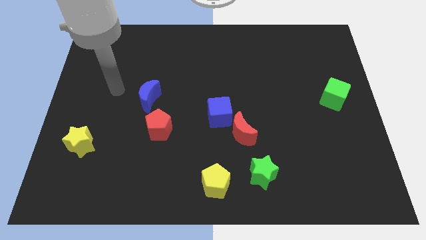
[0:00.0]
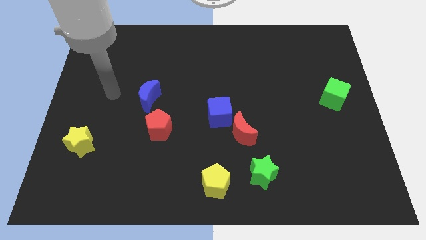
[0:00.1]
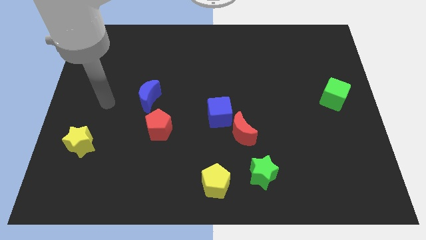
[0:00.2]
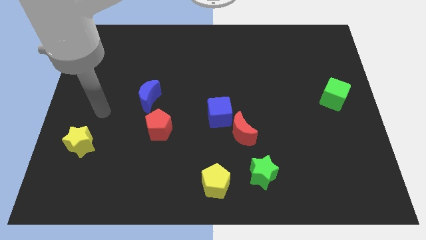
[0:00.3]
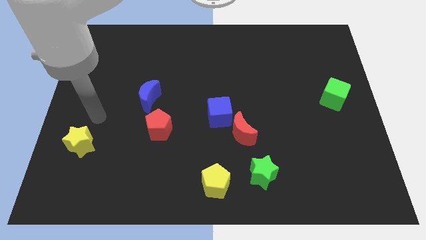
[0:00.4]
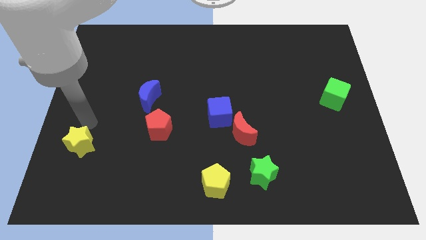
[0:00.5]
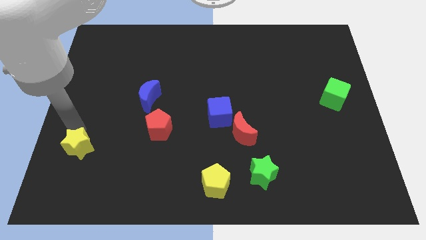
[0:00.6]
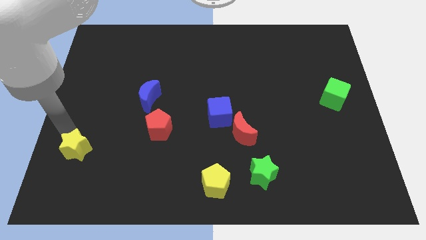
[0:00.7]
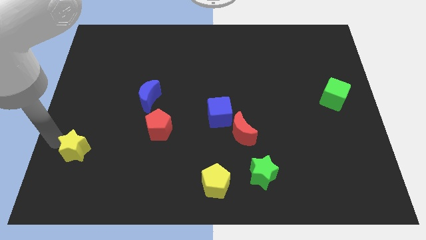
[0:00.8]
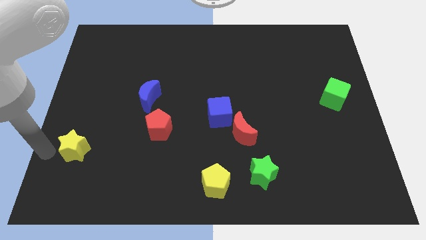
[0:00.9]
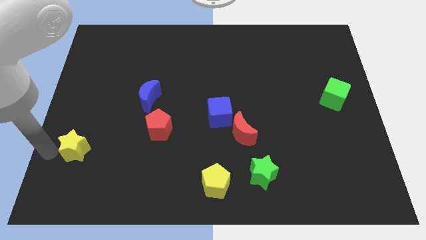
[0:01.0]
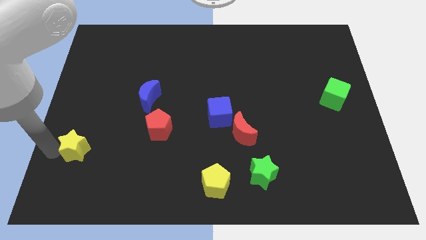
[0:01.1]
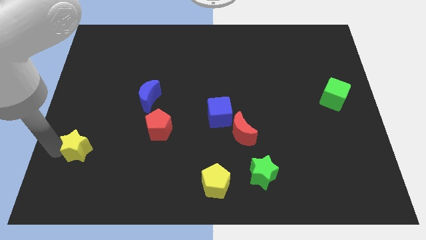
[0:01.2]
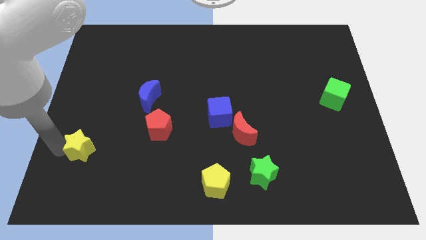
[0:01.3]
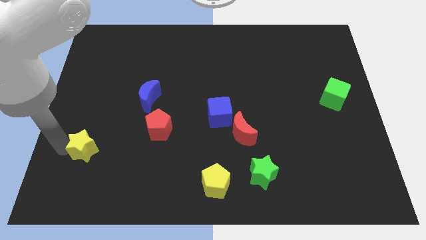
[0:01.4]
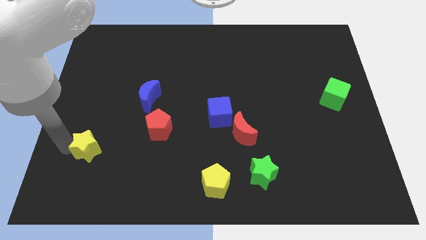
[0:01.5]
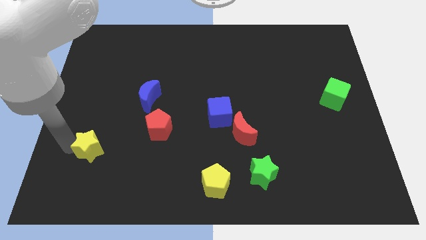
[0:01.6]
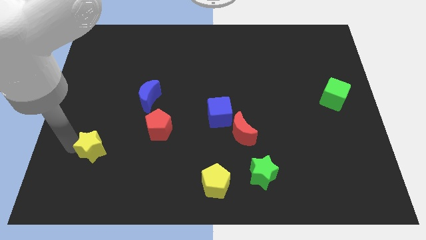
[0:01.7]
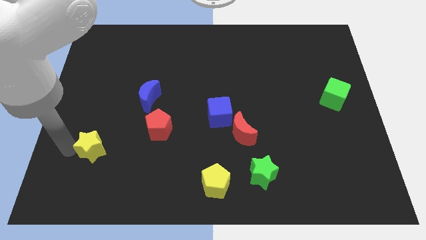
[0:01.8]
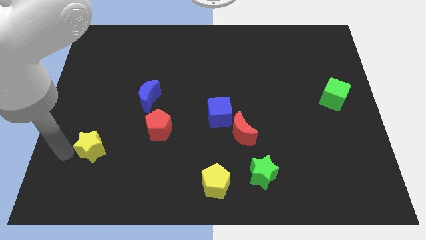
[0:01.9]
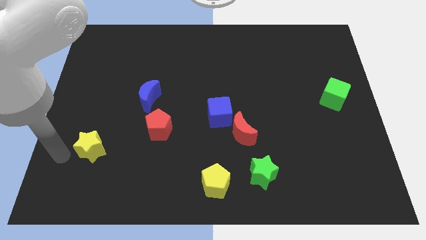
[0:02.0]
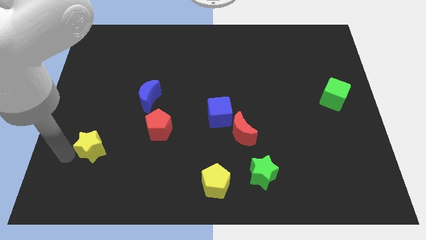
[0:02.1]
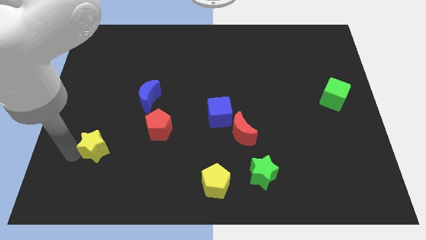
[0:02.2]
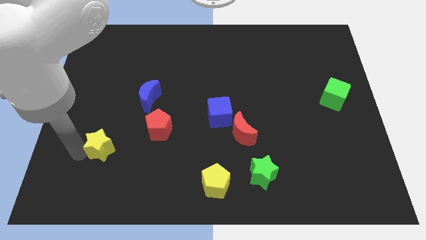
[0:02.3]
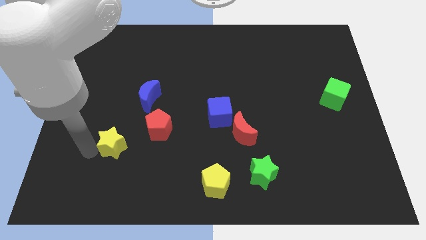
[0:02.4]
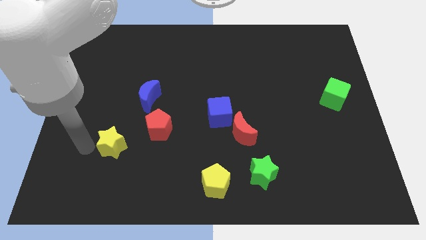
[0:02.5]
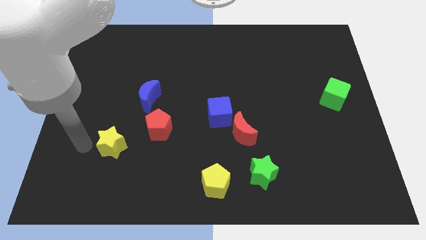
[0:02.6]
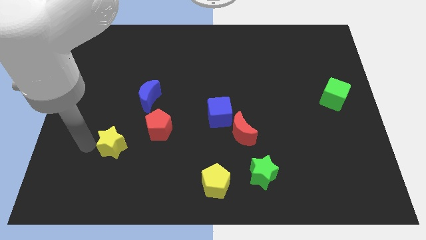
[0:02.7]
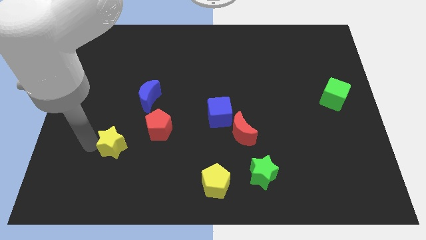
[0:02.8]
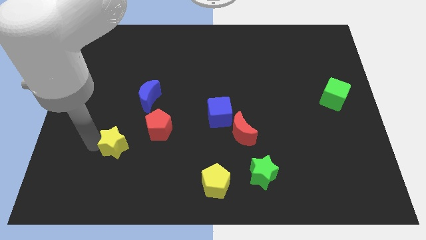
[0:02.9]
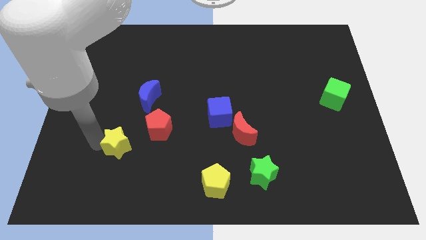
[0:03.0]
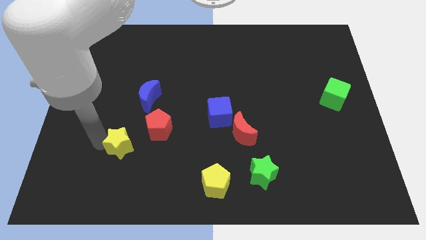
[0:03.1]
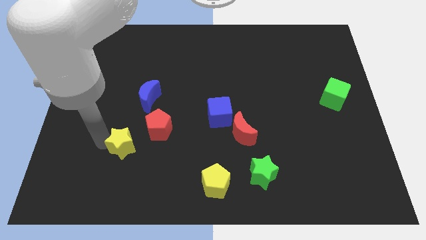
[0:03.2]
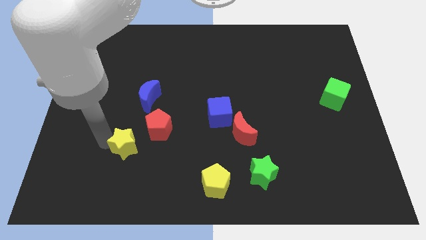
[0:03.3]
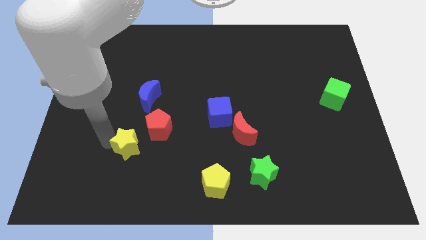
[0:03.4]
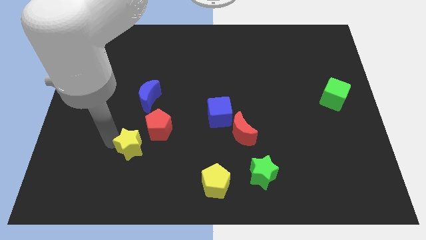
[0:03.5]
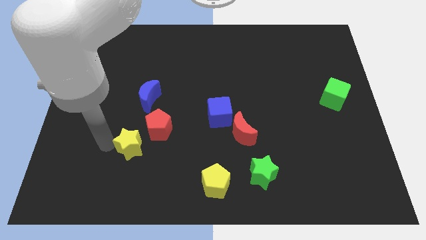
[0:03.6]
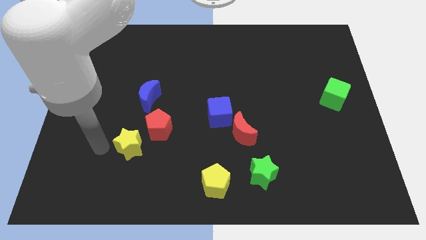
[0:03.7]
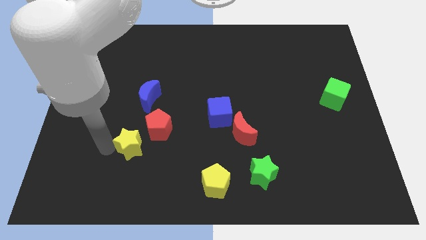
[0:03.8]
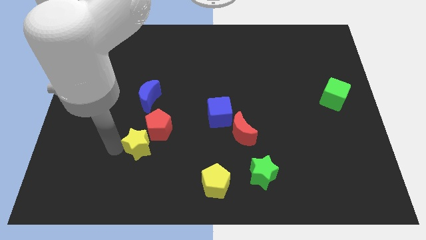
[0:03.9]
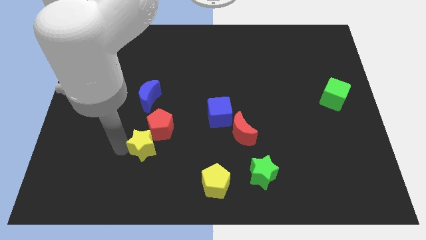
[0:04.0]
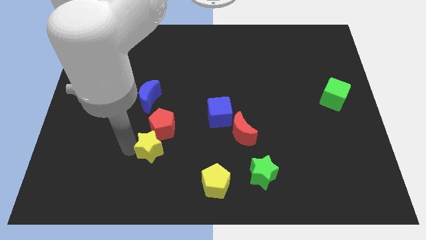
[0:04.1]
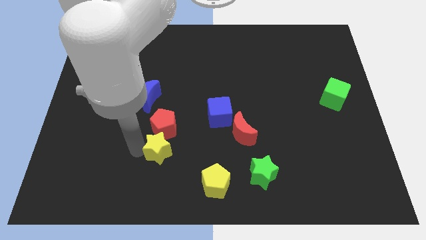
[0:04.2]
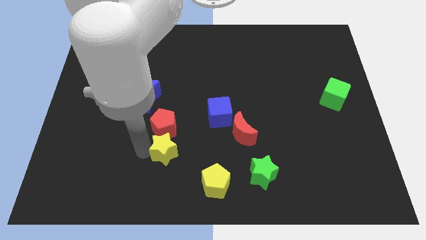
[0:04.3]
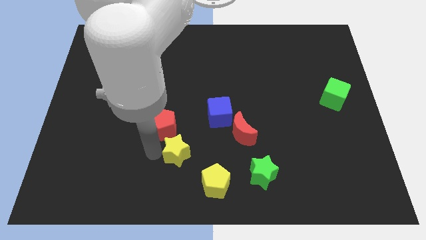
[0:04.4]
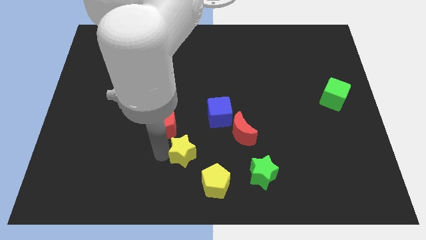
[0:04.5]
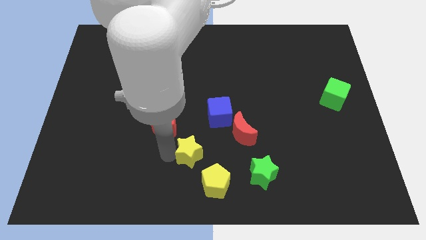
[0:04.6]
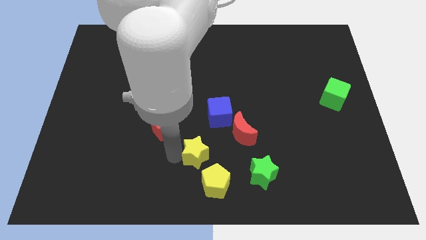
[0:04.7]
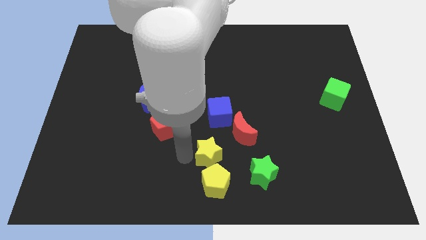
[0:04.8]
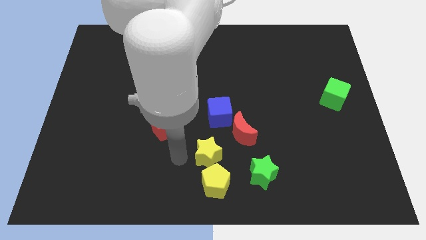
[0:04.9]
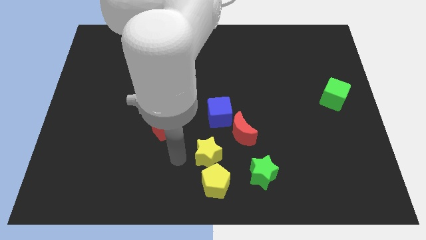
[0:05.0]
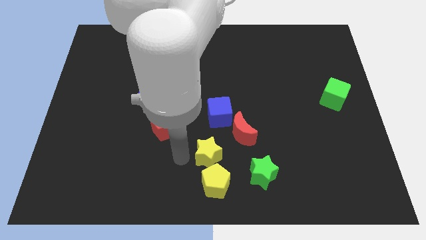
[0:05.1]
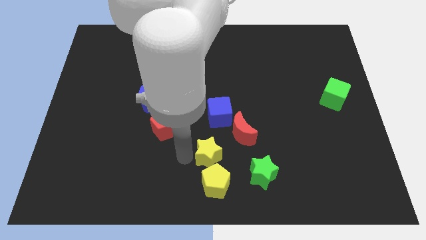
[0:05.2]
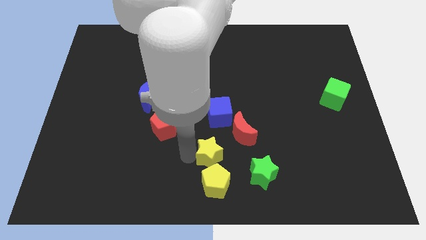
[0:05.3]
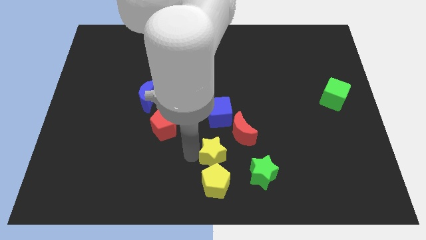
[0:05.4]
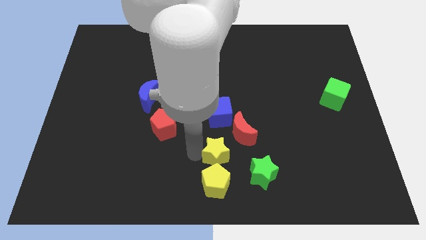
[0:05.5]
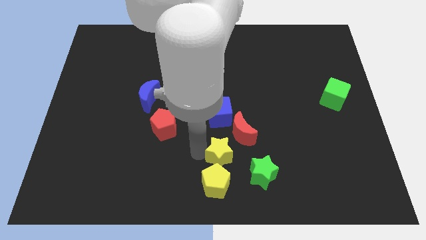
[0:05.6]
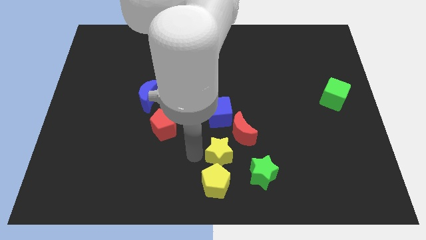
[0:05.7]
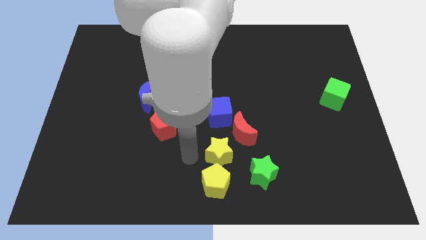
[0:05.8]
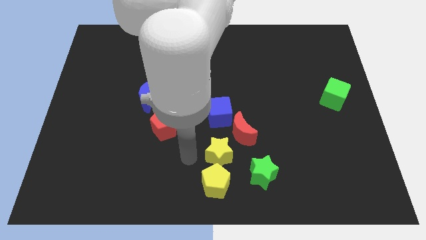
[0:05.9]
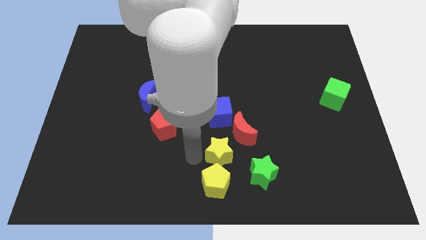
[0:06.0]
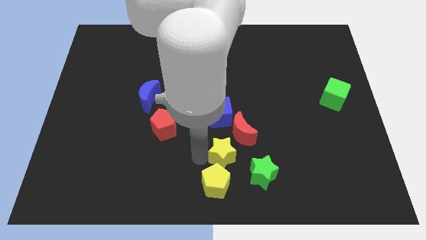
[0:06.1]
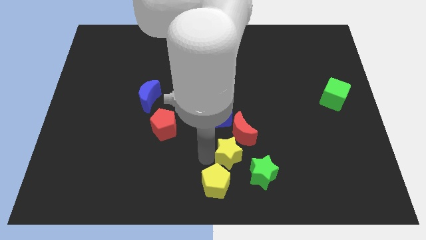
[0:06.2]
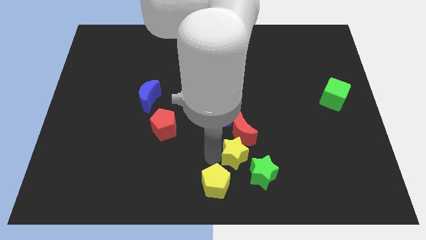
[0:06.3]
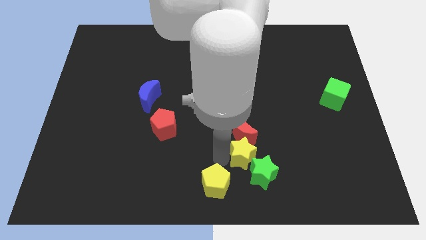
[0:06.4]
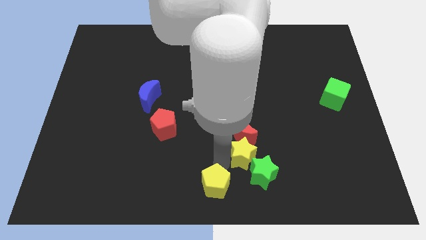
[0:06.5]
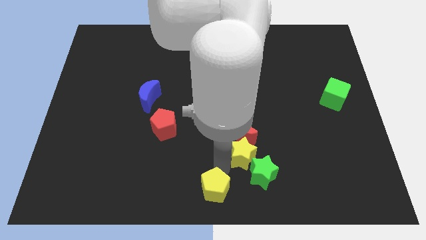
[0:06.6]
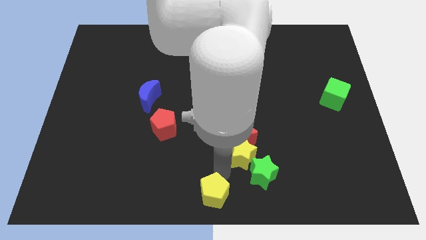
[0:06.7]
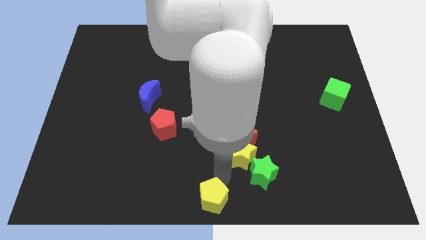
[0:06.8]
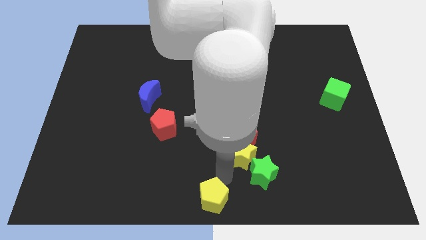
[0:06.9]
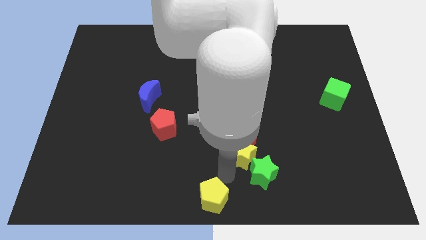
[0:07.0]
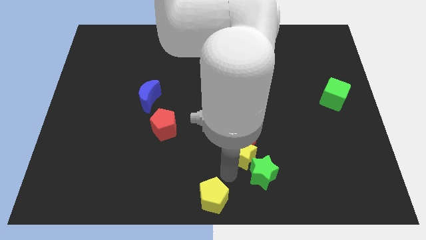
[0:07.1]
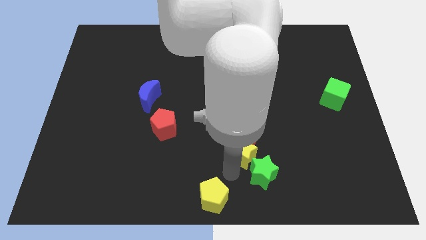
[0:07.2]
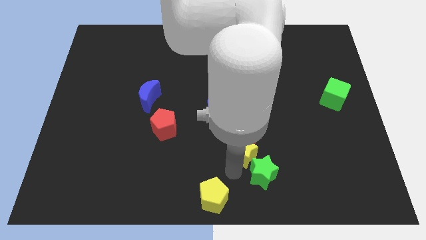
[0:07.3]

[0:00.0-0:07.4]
put the yellow star to the bottom right side of the blue cube

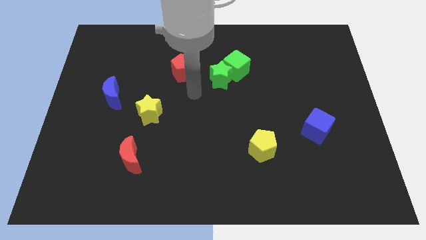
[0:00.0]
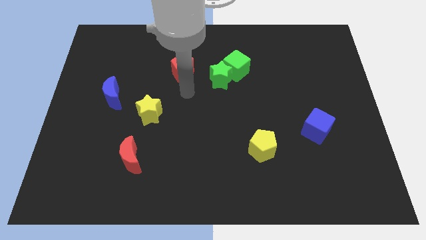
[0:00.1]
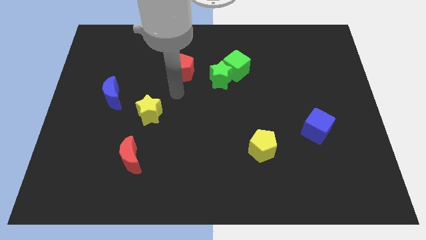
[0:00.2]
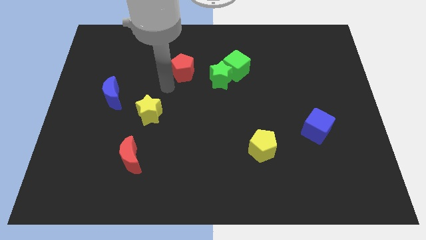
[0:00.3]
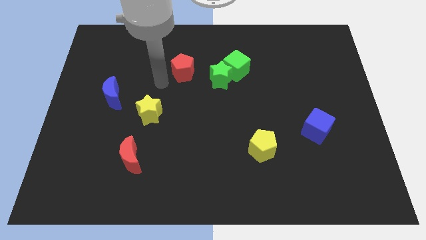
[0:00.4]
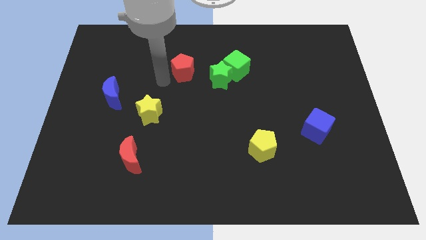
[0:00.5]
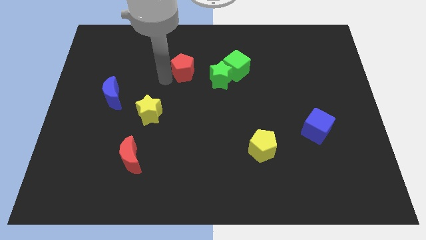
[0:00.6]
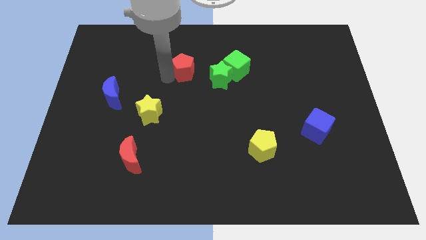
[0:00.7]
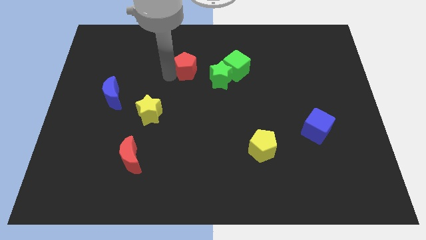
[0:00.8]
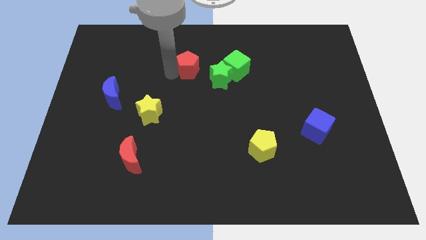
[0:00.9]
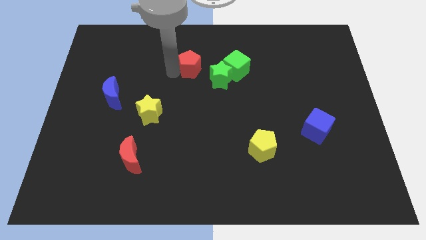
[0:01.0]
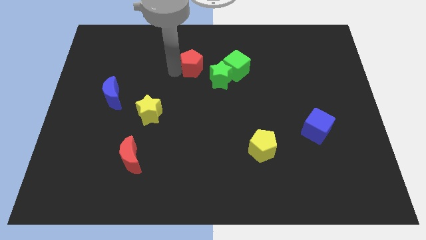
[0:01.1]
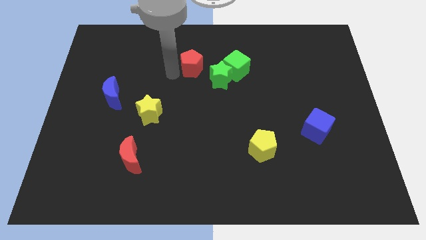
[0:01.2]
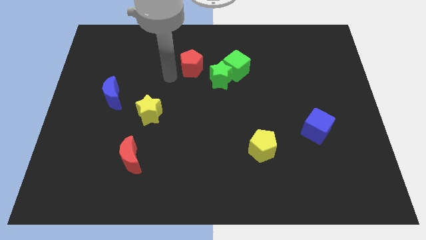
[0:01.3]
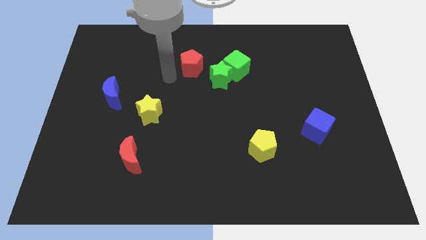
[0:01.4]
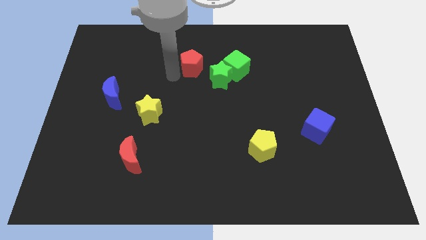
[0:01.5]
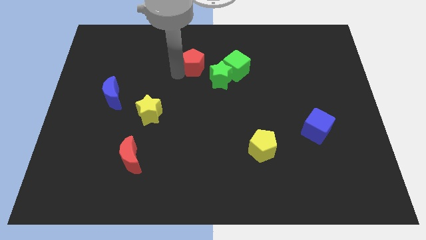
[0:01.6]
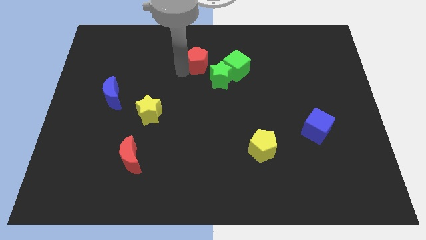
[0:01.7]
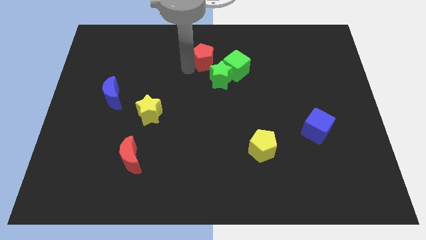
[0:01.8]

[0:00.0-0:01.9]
move the red pentagon to the top left side of the green cube
